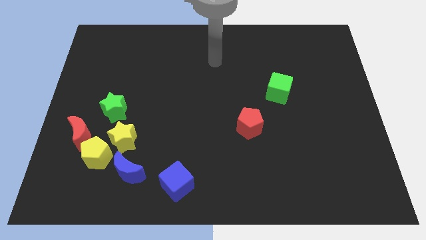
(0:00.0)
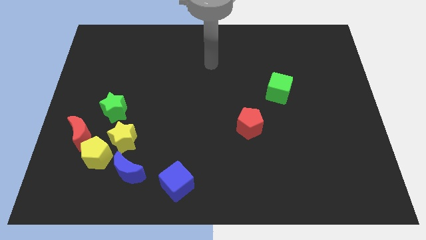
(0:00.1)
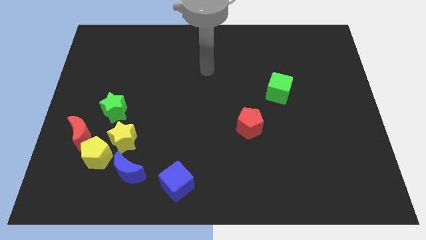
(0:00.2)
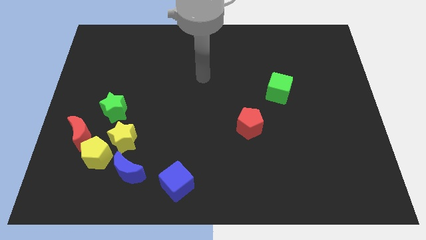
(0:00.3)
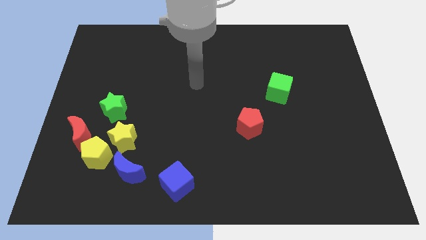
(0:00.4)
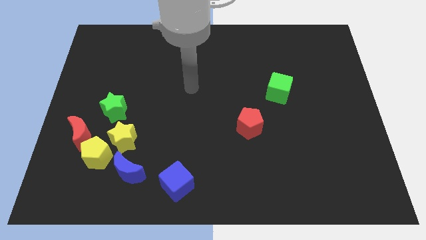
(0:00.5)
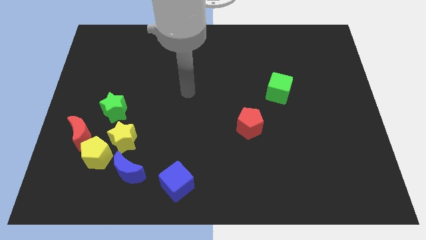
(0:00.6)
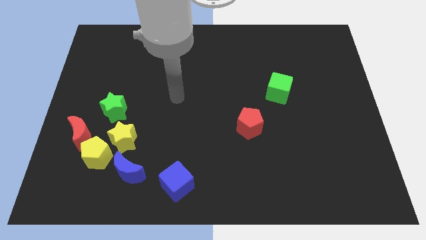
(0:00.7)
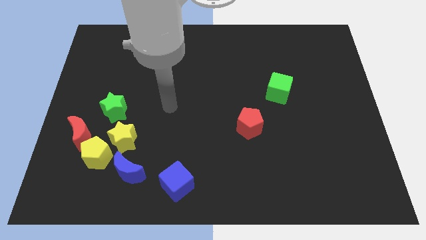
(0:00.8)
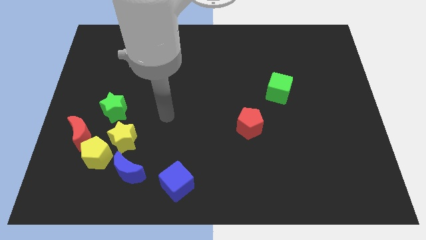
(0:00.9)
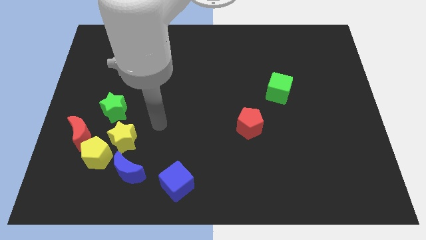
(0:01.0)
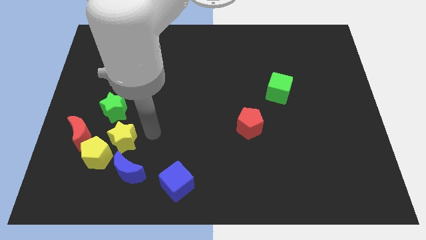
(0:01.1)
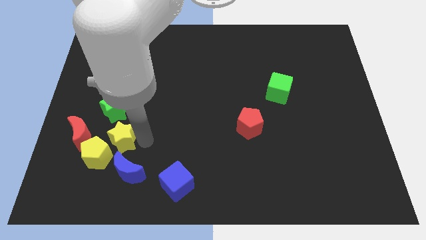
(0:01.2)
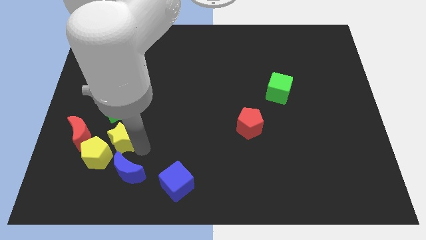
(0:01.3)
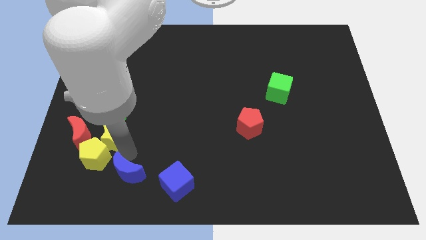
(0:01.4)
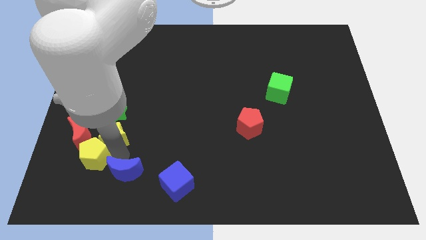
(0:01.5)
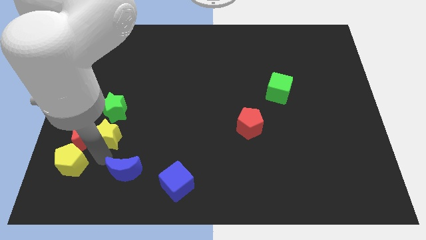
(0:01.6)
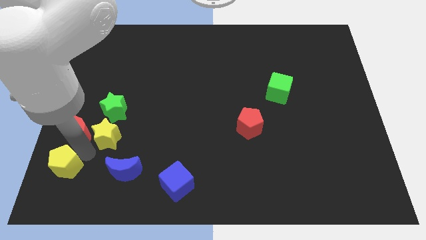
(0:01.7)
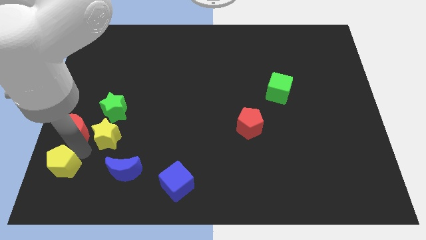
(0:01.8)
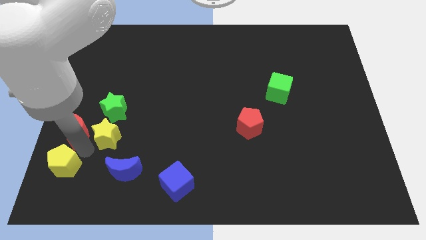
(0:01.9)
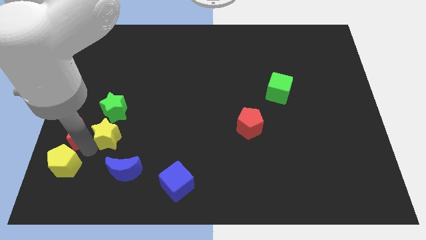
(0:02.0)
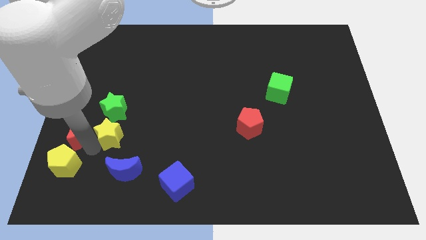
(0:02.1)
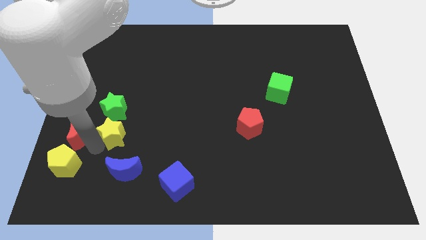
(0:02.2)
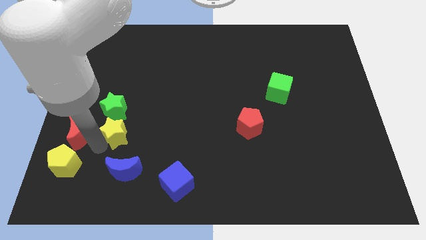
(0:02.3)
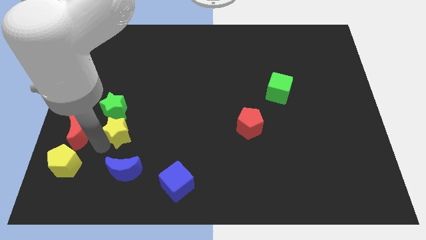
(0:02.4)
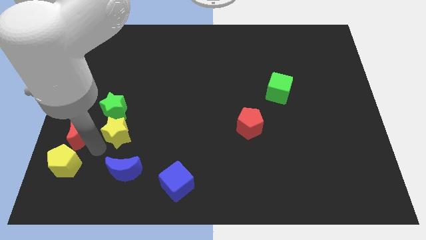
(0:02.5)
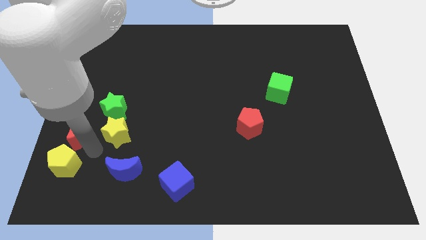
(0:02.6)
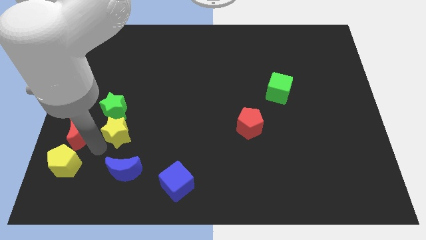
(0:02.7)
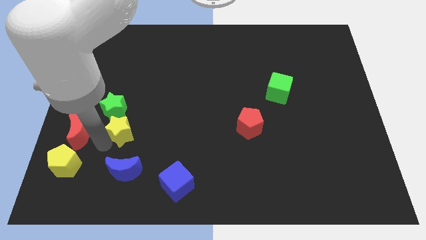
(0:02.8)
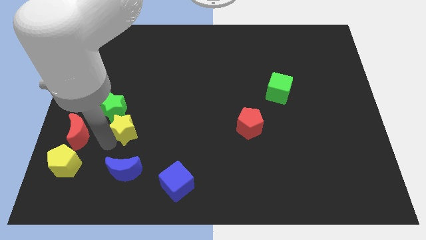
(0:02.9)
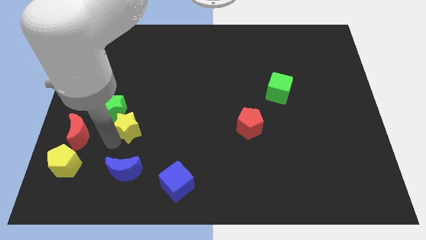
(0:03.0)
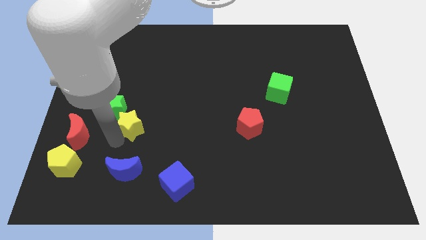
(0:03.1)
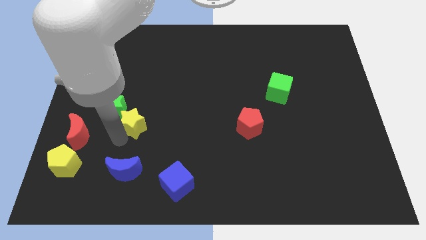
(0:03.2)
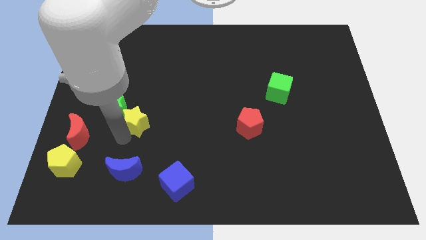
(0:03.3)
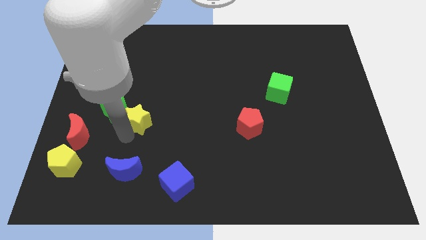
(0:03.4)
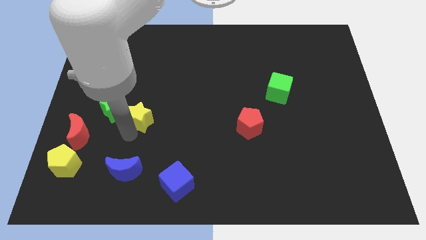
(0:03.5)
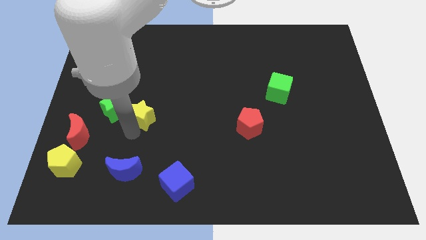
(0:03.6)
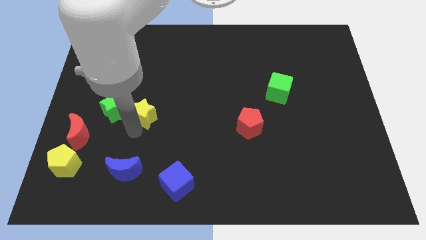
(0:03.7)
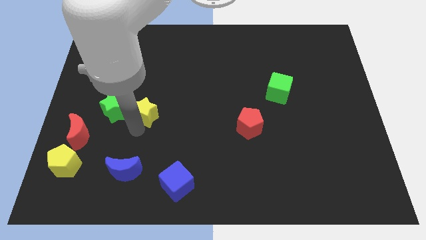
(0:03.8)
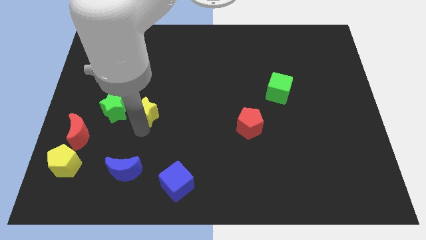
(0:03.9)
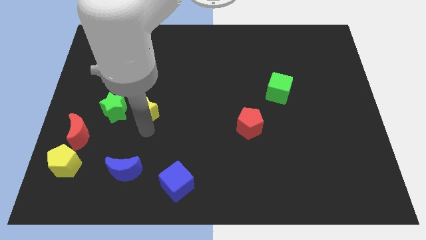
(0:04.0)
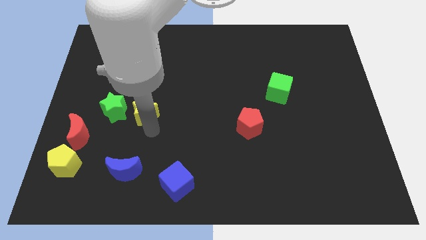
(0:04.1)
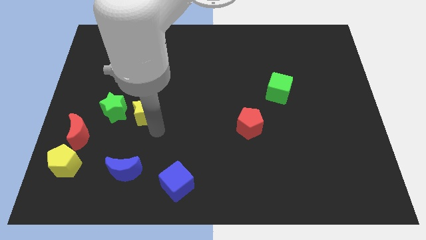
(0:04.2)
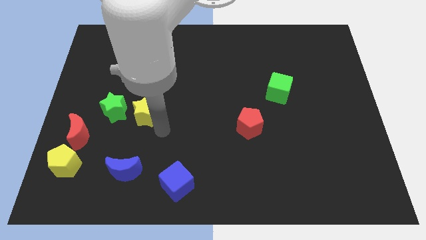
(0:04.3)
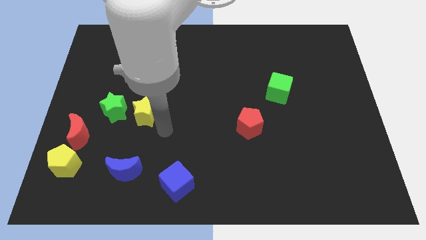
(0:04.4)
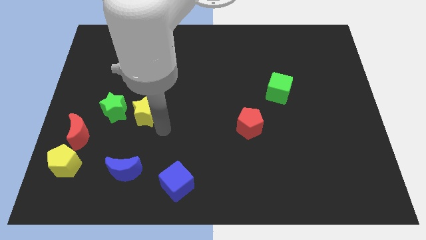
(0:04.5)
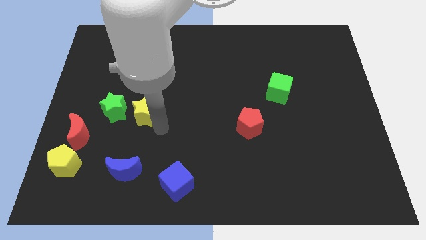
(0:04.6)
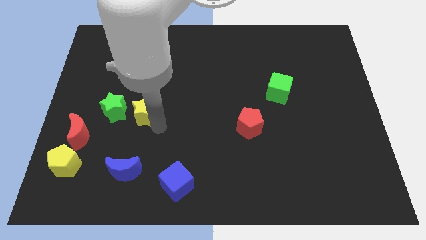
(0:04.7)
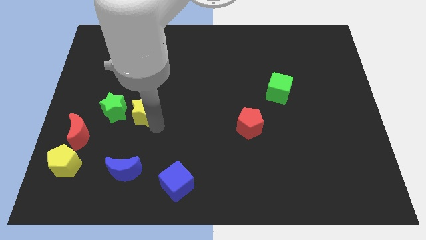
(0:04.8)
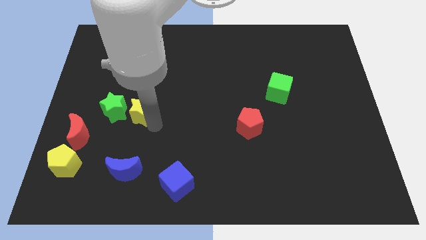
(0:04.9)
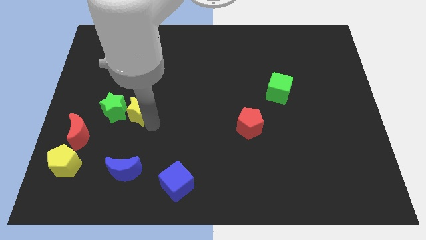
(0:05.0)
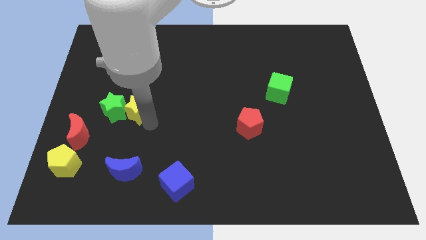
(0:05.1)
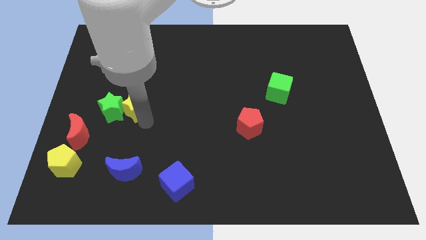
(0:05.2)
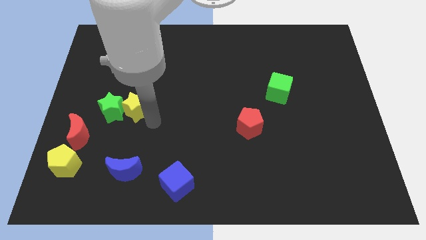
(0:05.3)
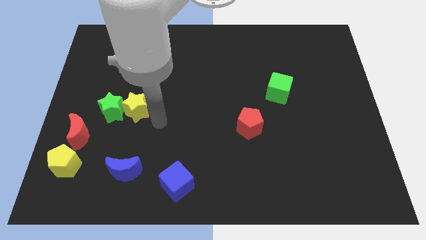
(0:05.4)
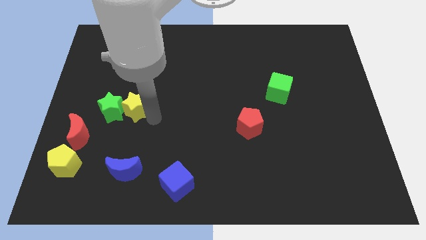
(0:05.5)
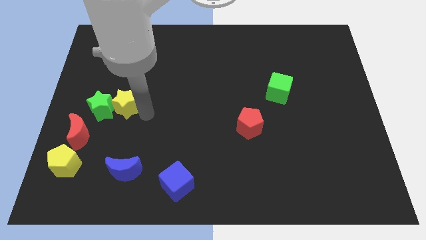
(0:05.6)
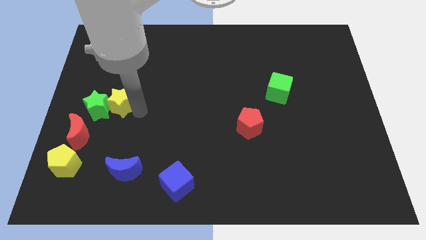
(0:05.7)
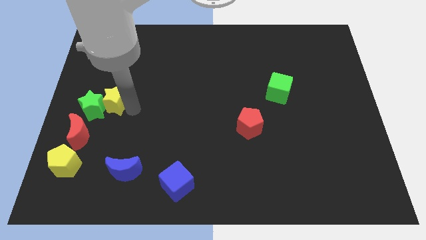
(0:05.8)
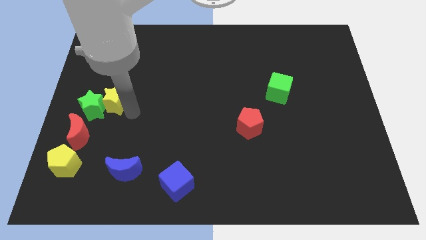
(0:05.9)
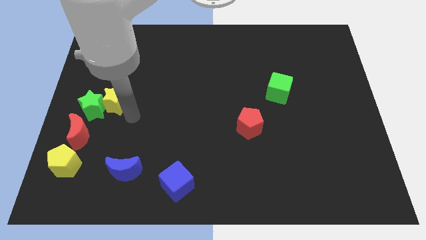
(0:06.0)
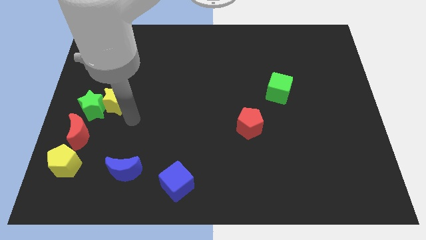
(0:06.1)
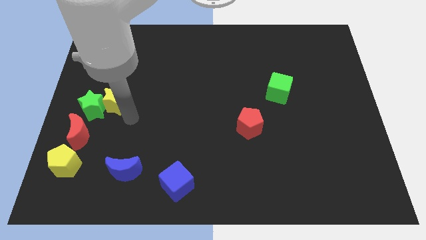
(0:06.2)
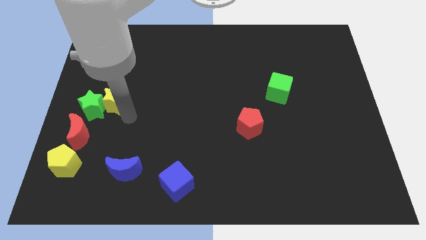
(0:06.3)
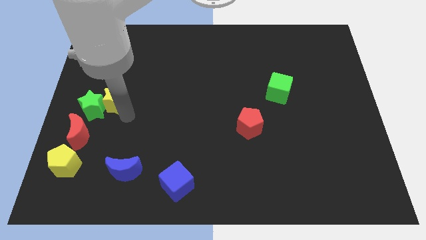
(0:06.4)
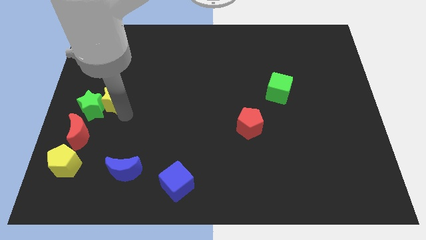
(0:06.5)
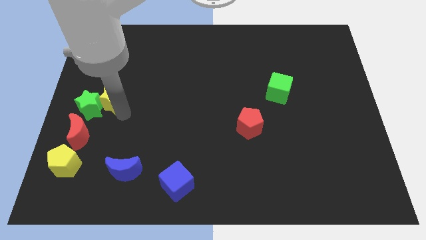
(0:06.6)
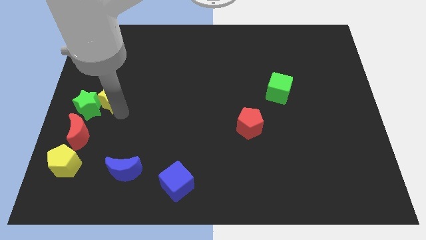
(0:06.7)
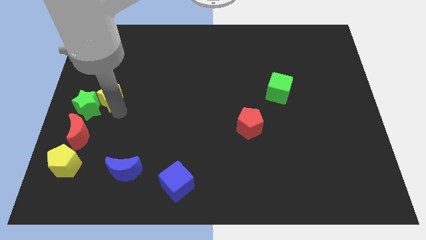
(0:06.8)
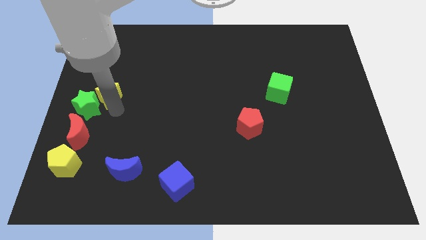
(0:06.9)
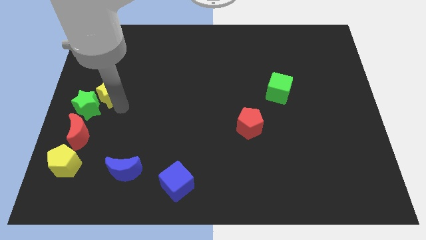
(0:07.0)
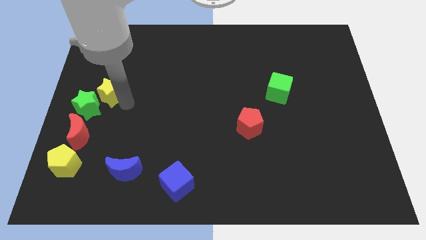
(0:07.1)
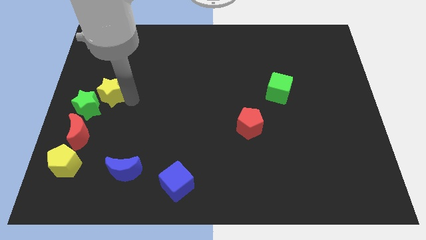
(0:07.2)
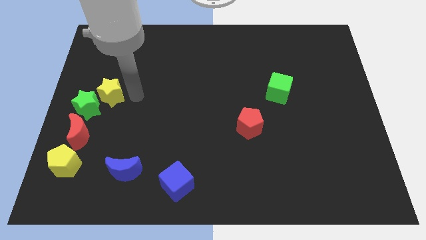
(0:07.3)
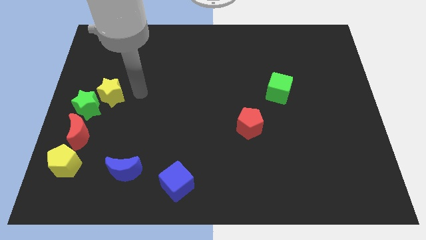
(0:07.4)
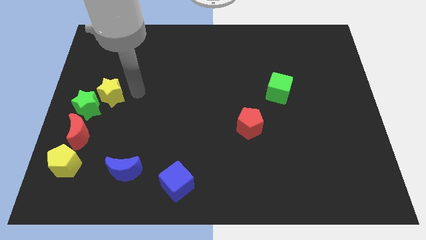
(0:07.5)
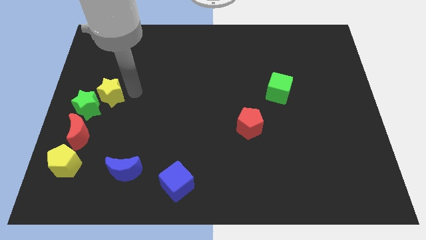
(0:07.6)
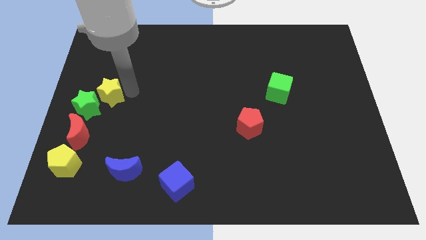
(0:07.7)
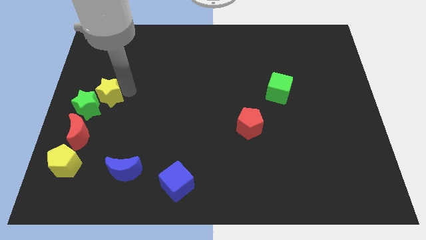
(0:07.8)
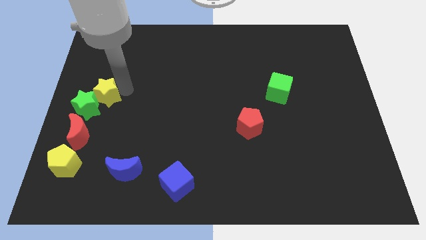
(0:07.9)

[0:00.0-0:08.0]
slide the yellow star to the center left
